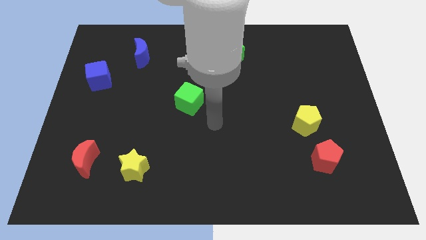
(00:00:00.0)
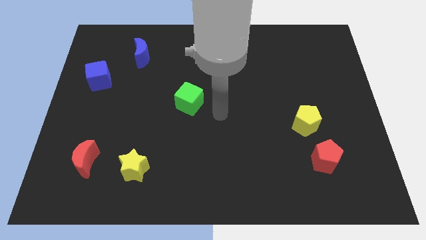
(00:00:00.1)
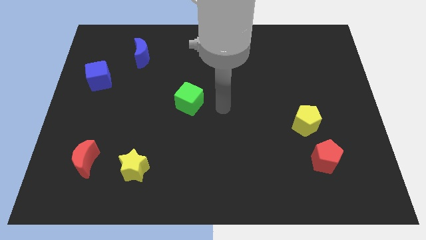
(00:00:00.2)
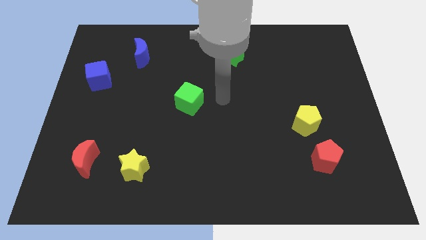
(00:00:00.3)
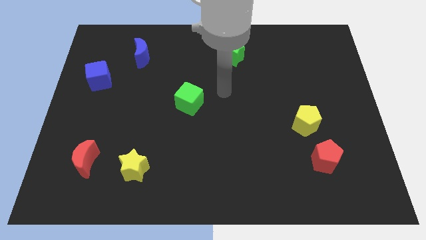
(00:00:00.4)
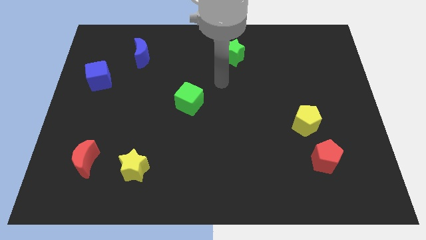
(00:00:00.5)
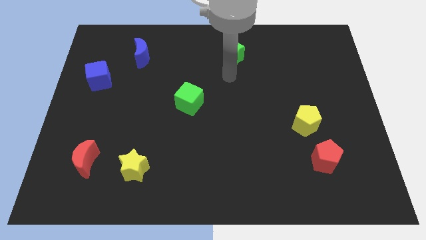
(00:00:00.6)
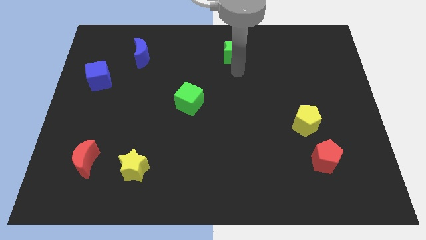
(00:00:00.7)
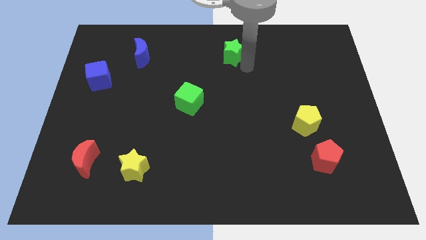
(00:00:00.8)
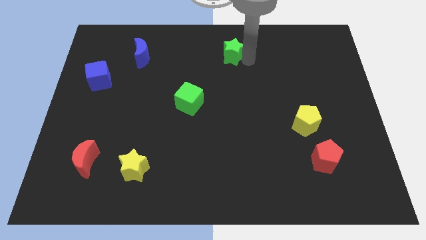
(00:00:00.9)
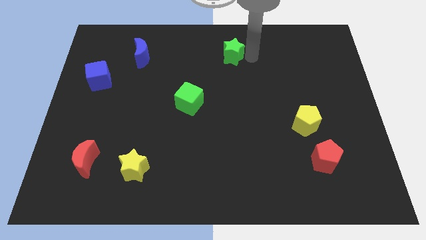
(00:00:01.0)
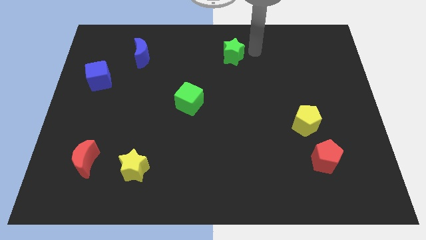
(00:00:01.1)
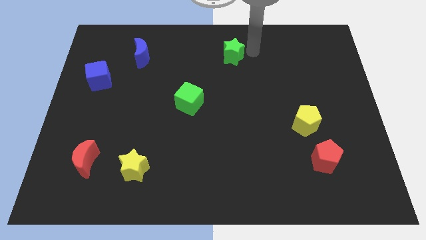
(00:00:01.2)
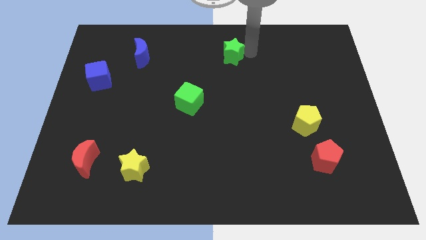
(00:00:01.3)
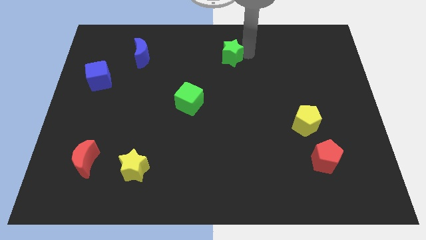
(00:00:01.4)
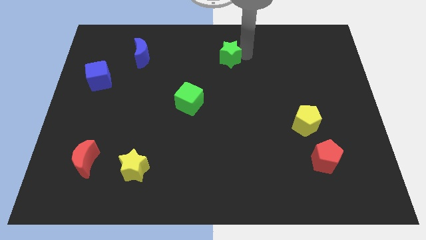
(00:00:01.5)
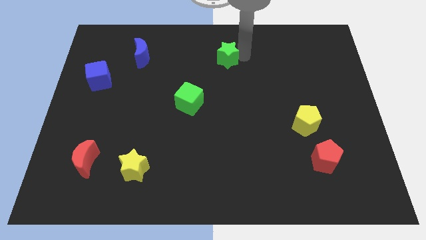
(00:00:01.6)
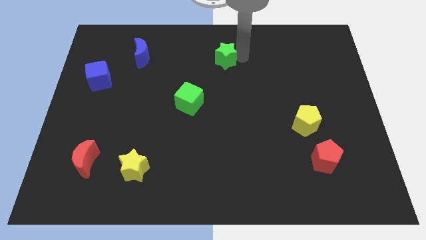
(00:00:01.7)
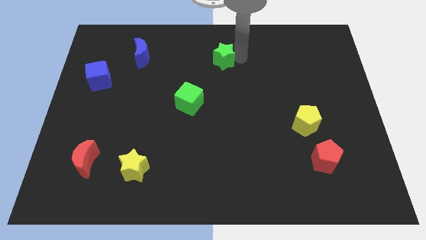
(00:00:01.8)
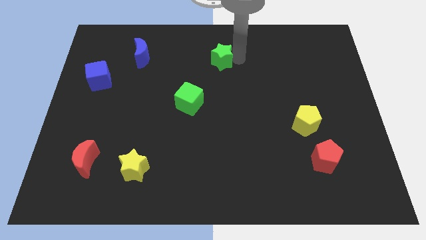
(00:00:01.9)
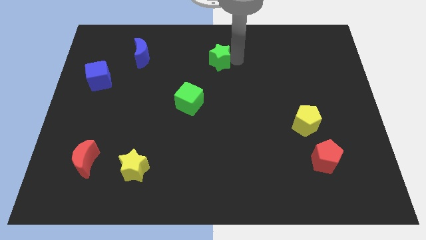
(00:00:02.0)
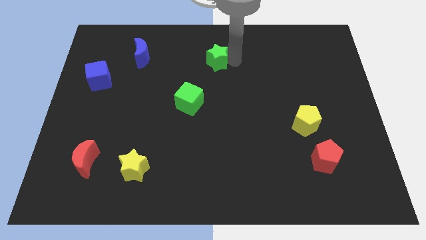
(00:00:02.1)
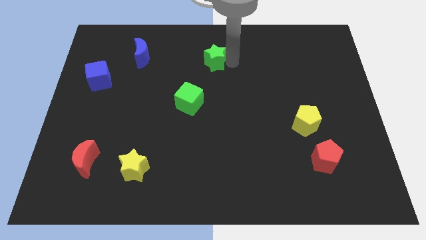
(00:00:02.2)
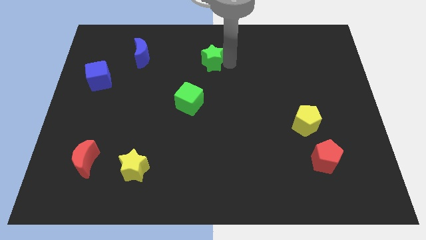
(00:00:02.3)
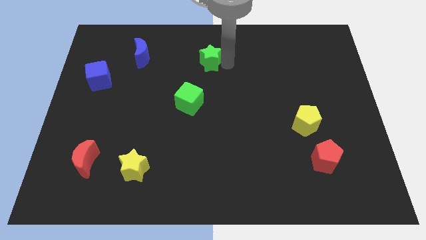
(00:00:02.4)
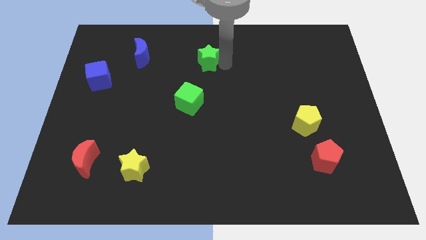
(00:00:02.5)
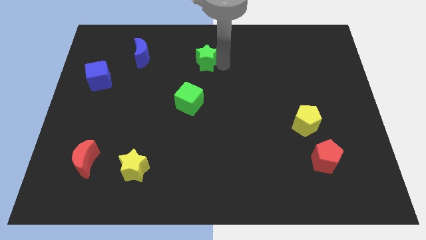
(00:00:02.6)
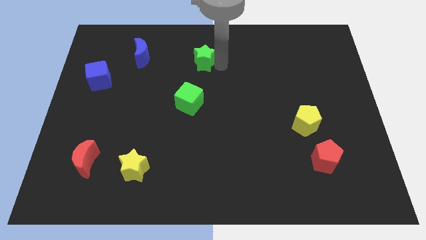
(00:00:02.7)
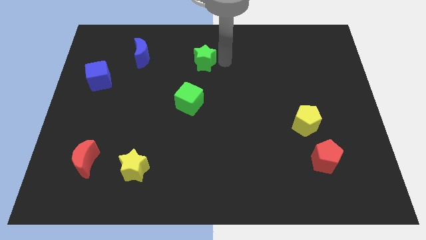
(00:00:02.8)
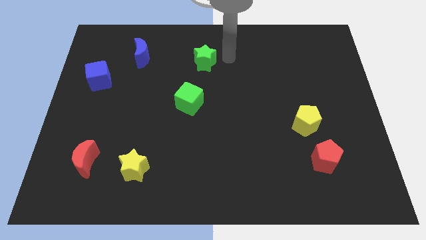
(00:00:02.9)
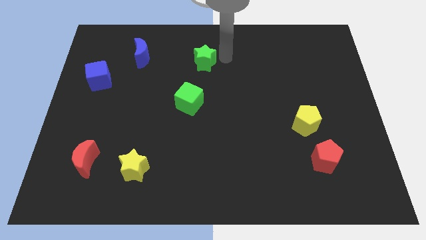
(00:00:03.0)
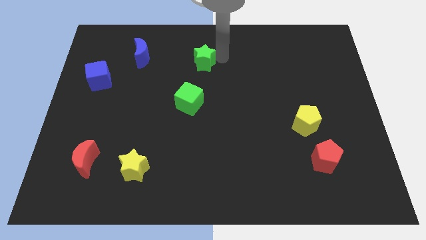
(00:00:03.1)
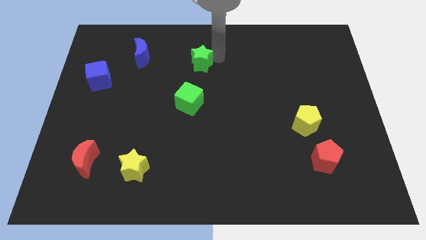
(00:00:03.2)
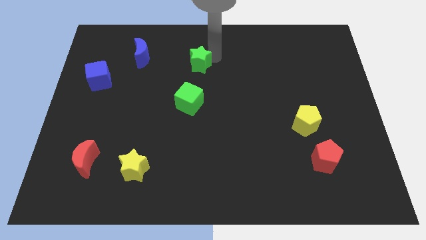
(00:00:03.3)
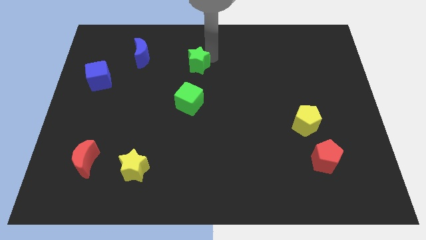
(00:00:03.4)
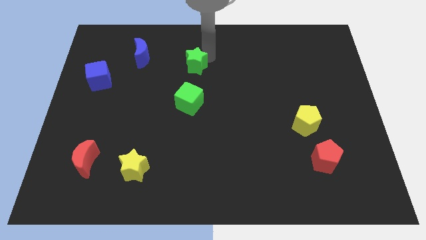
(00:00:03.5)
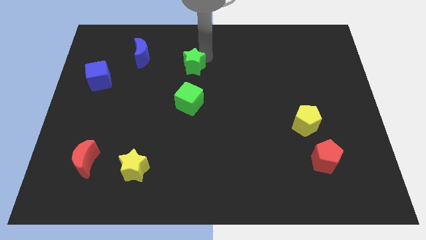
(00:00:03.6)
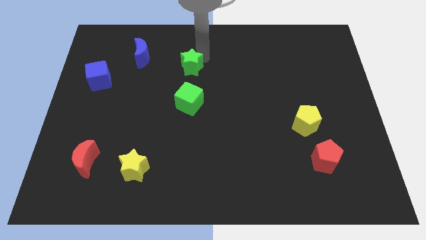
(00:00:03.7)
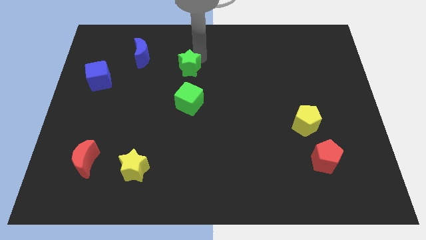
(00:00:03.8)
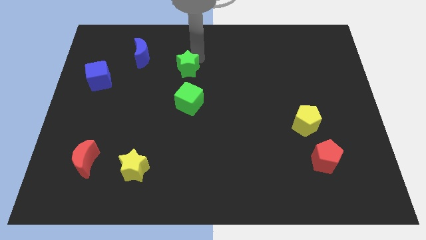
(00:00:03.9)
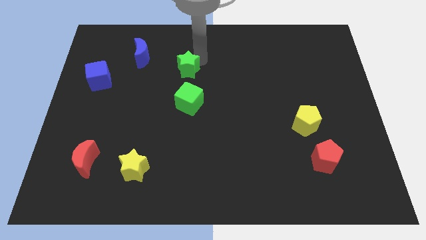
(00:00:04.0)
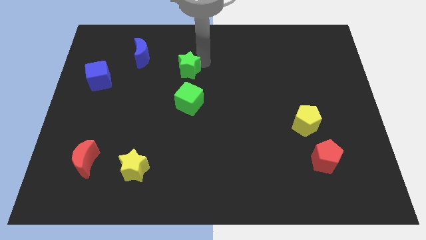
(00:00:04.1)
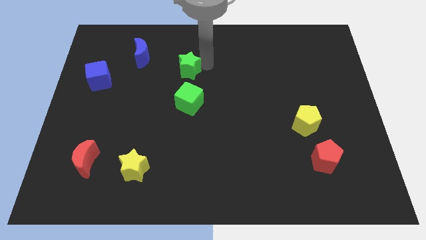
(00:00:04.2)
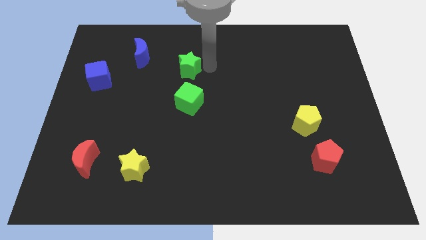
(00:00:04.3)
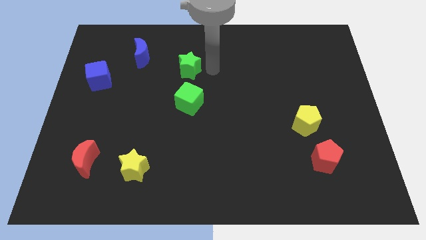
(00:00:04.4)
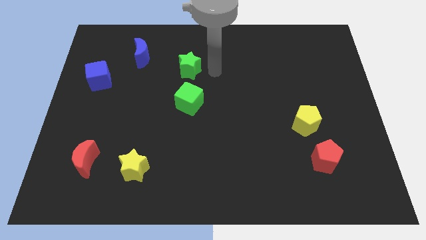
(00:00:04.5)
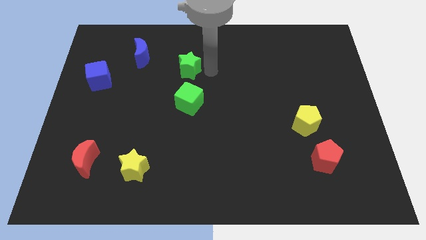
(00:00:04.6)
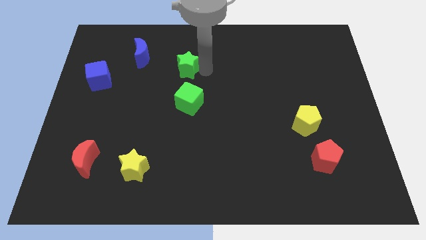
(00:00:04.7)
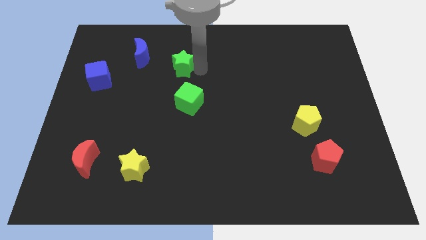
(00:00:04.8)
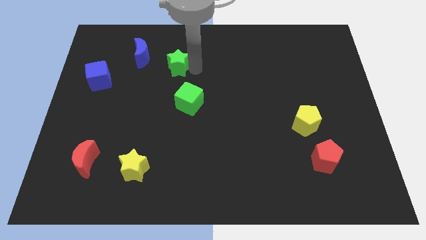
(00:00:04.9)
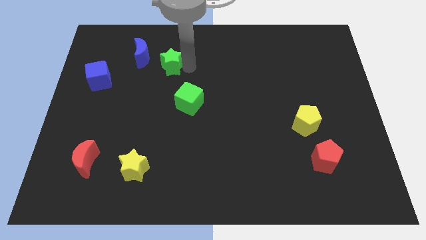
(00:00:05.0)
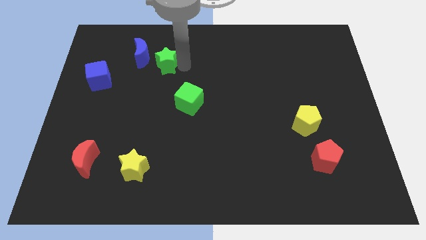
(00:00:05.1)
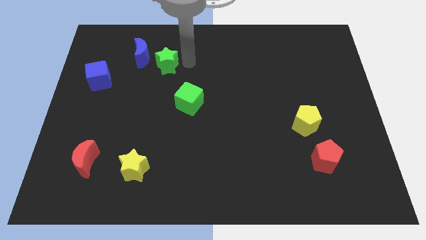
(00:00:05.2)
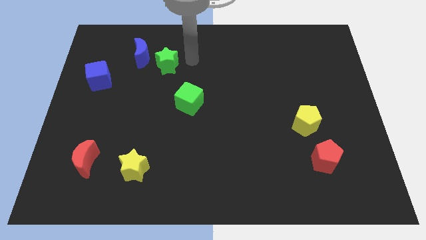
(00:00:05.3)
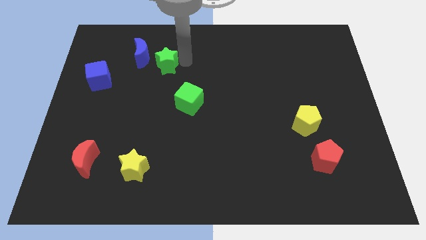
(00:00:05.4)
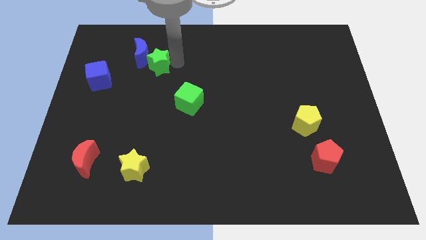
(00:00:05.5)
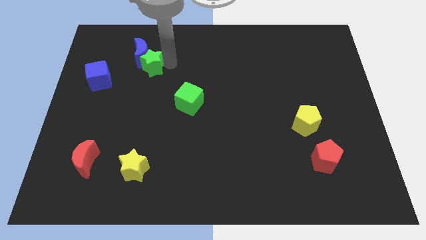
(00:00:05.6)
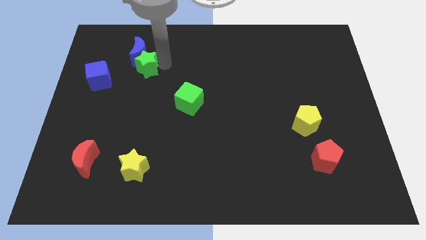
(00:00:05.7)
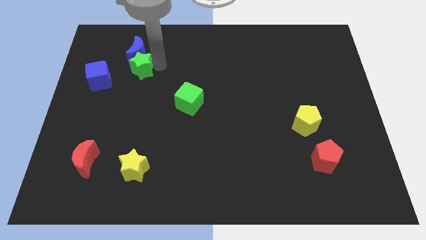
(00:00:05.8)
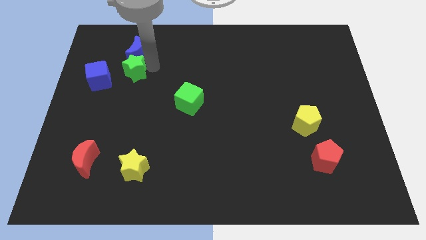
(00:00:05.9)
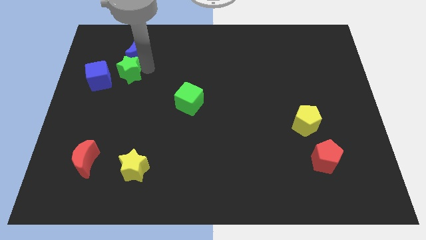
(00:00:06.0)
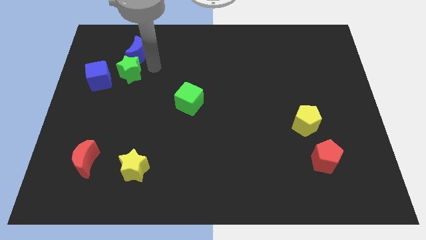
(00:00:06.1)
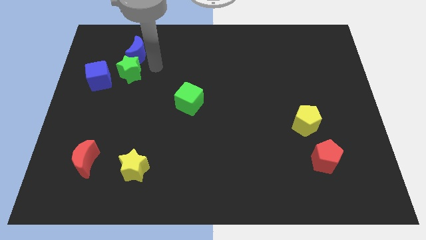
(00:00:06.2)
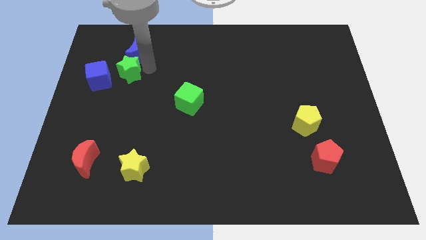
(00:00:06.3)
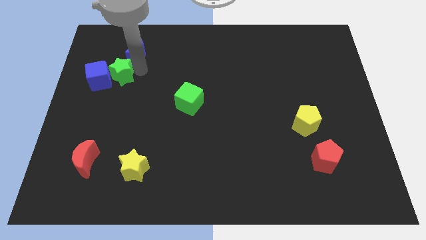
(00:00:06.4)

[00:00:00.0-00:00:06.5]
put the green star next to the blue cube

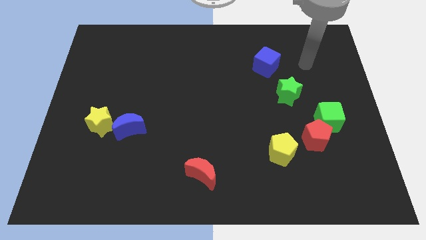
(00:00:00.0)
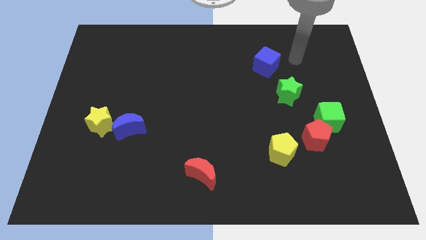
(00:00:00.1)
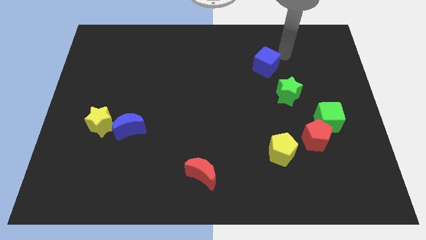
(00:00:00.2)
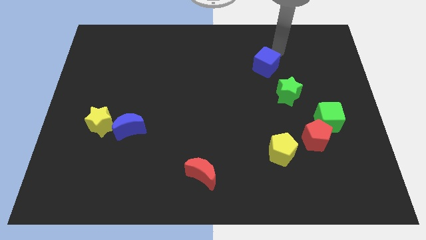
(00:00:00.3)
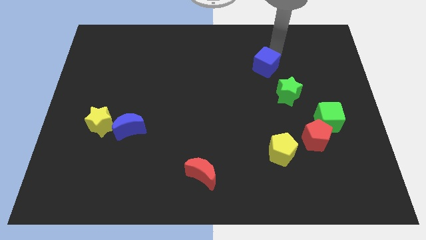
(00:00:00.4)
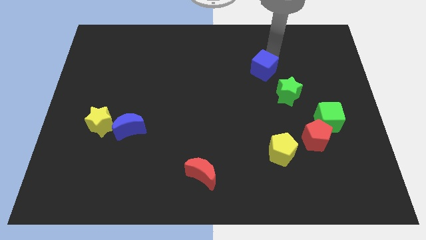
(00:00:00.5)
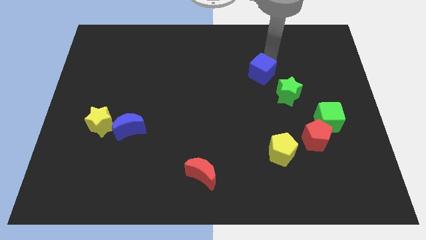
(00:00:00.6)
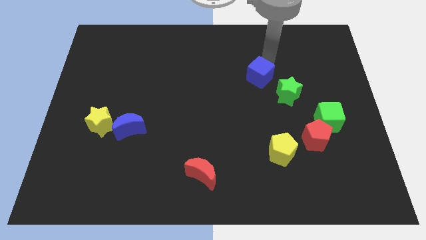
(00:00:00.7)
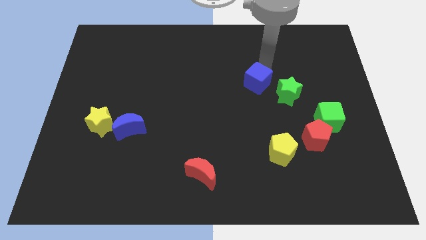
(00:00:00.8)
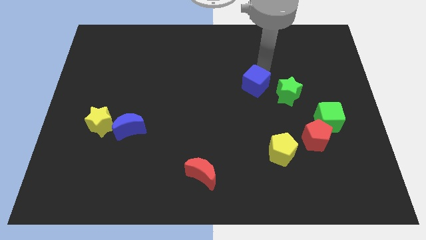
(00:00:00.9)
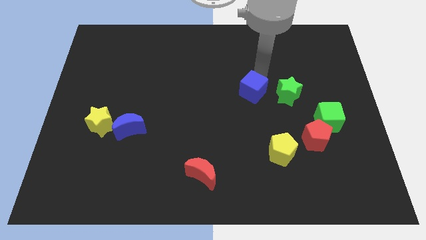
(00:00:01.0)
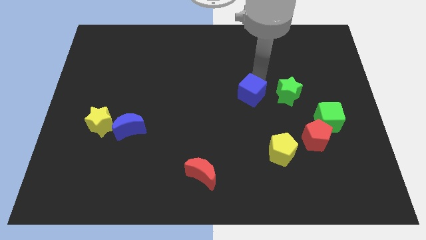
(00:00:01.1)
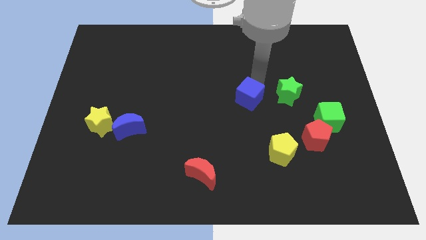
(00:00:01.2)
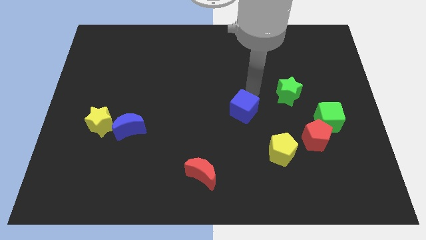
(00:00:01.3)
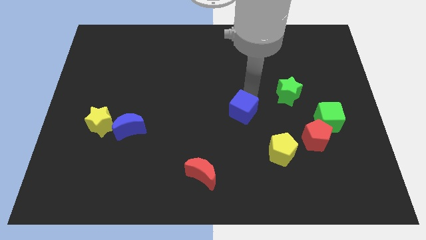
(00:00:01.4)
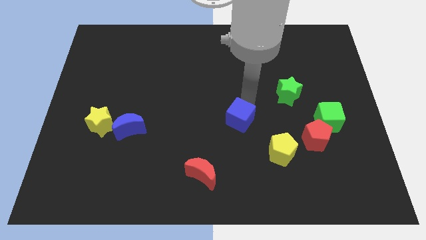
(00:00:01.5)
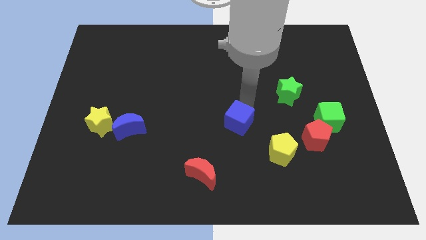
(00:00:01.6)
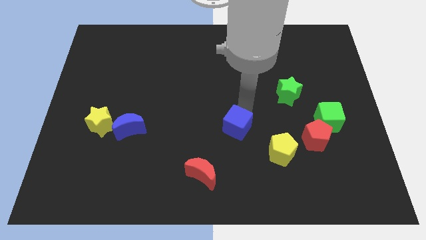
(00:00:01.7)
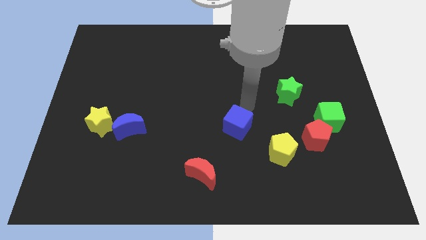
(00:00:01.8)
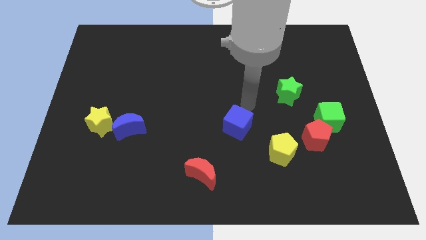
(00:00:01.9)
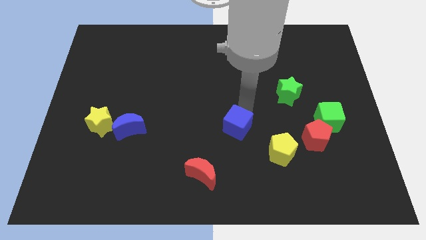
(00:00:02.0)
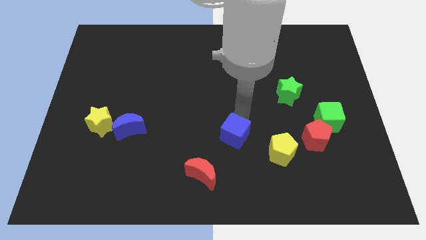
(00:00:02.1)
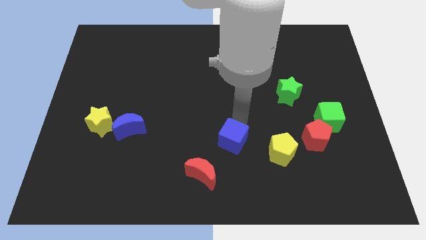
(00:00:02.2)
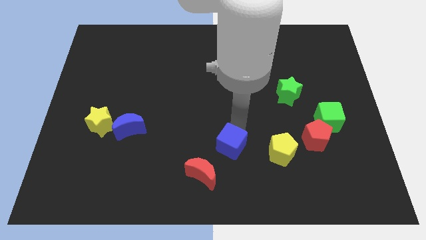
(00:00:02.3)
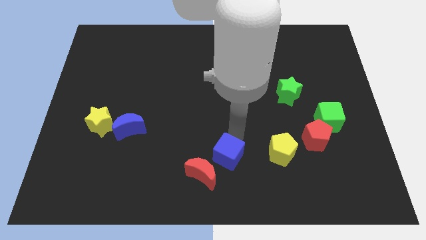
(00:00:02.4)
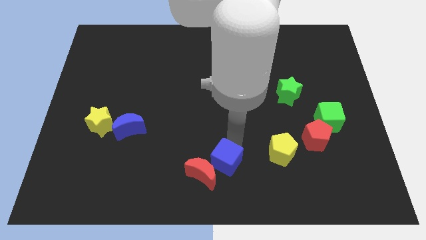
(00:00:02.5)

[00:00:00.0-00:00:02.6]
move the blue cube close to the red moon
